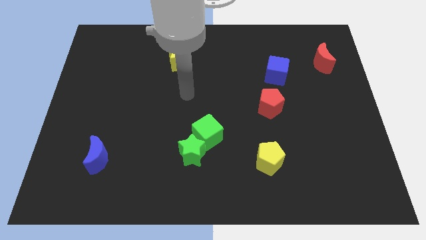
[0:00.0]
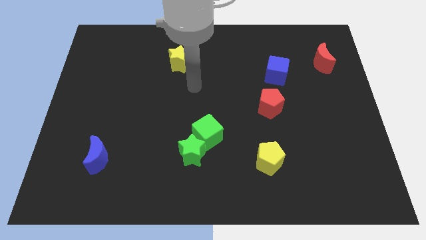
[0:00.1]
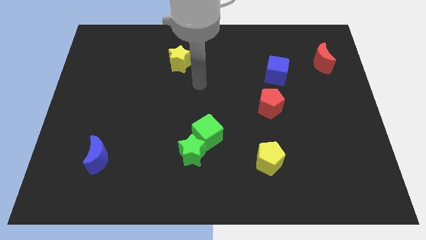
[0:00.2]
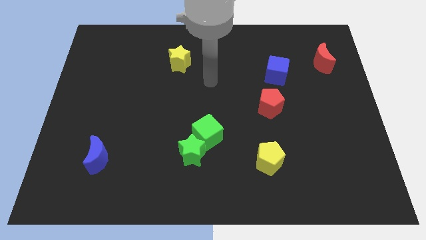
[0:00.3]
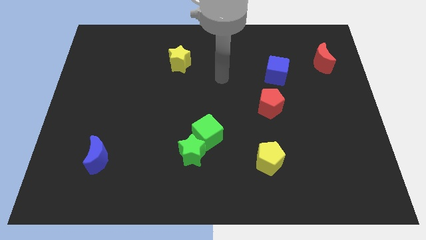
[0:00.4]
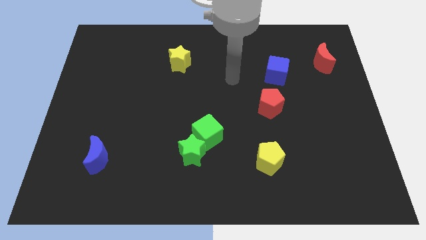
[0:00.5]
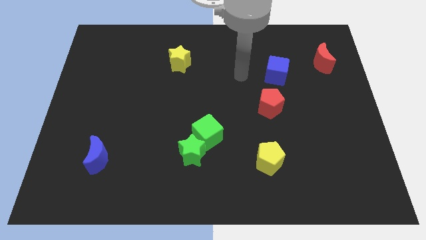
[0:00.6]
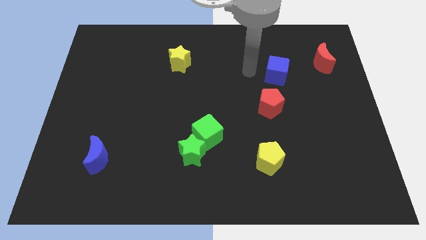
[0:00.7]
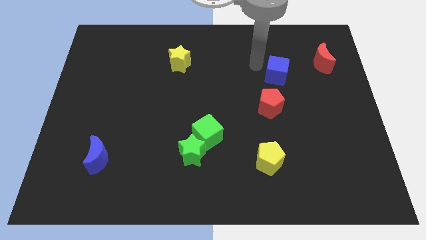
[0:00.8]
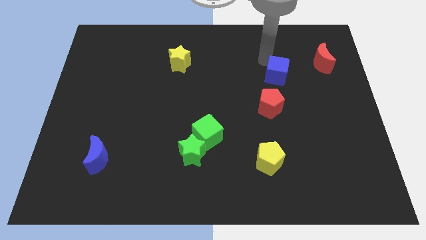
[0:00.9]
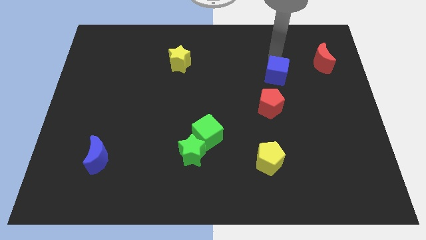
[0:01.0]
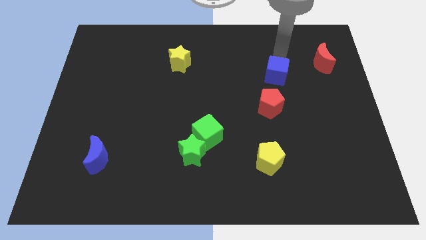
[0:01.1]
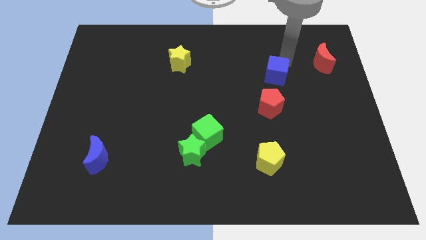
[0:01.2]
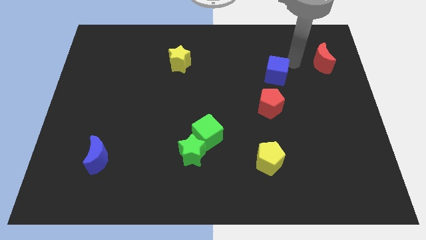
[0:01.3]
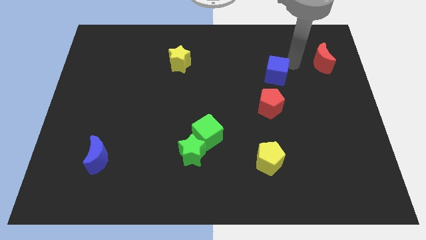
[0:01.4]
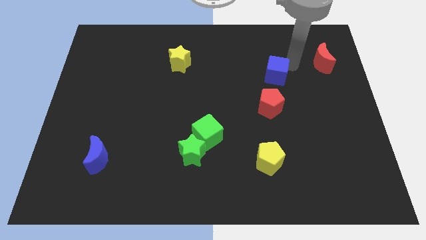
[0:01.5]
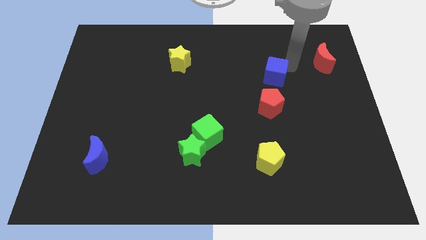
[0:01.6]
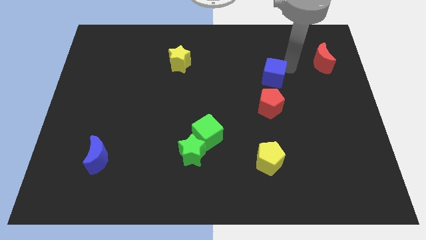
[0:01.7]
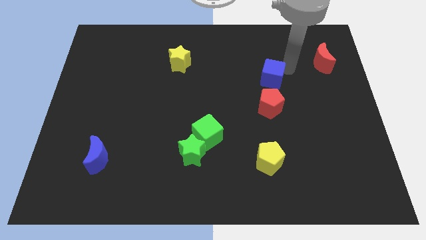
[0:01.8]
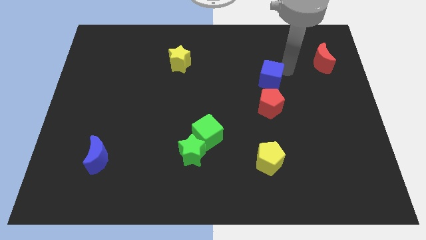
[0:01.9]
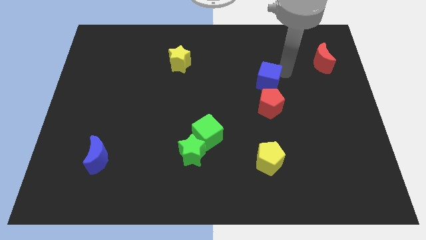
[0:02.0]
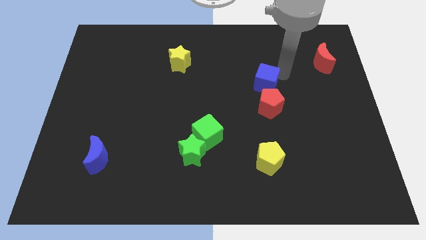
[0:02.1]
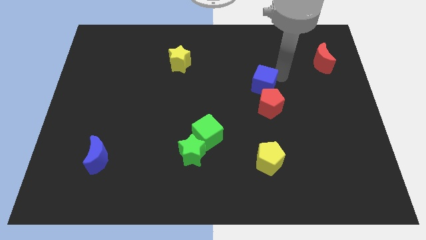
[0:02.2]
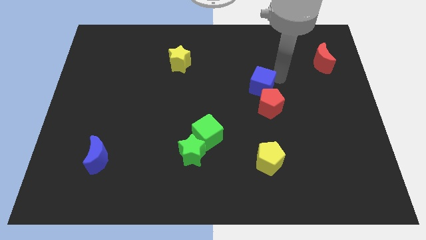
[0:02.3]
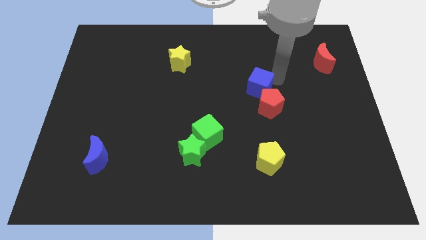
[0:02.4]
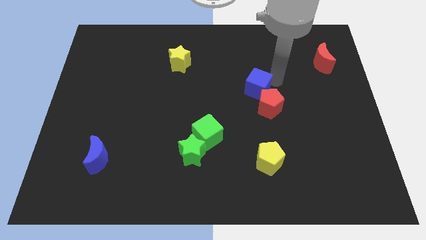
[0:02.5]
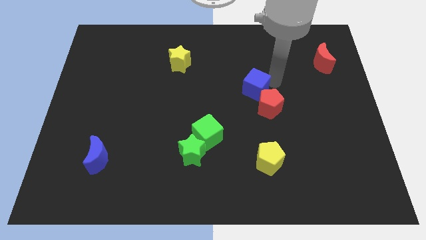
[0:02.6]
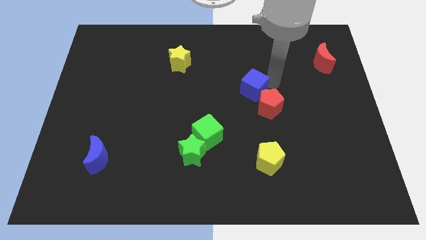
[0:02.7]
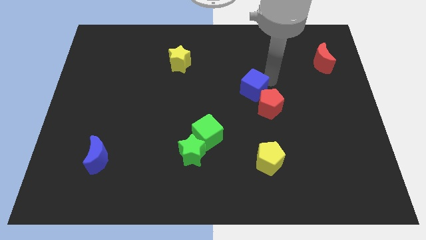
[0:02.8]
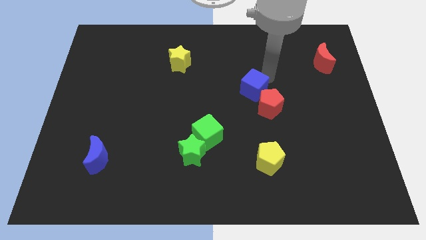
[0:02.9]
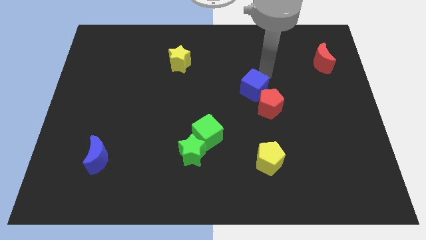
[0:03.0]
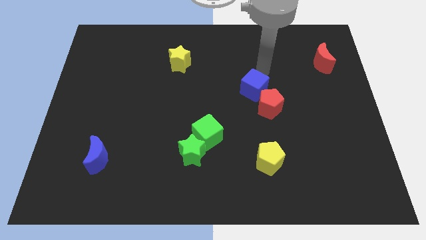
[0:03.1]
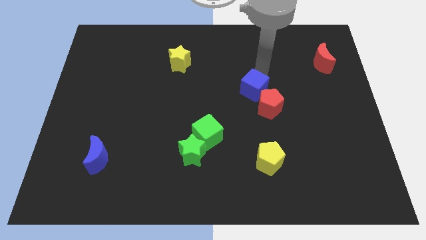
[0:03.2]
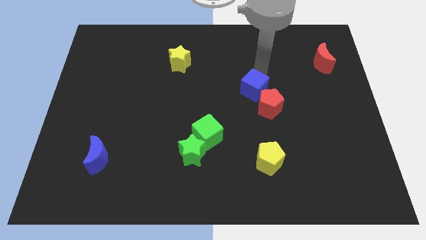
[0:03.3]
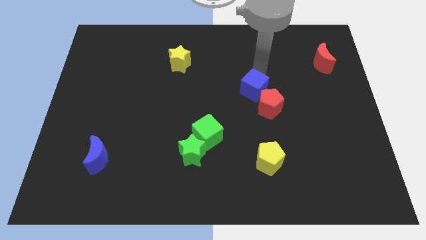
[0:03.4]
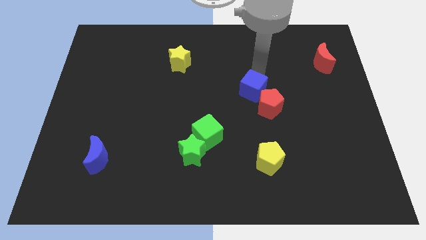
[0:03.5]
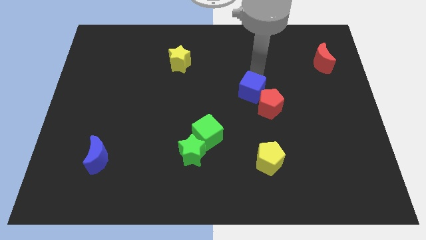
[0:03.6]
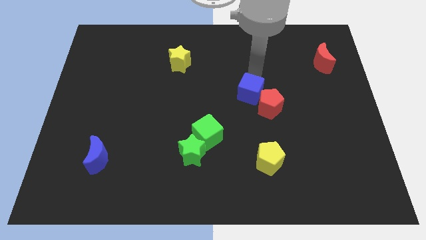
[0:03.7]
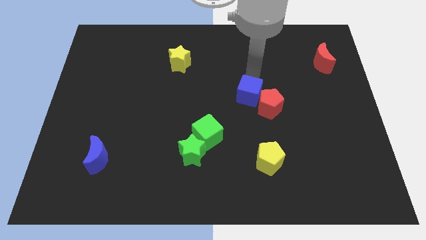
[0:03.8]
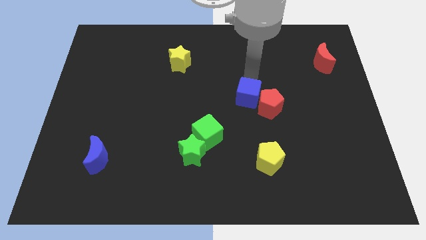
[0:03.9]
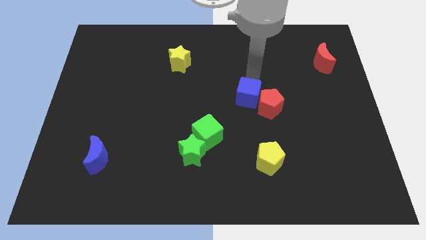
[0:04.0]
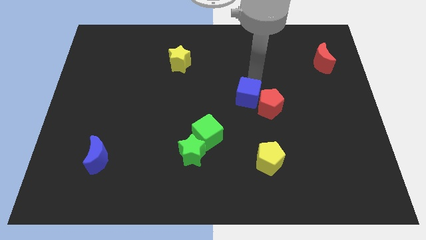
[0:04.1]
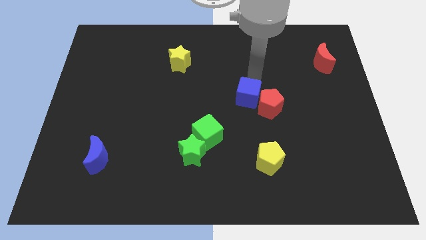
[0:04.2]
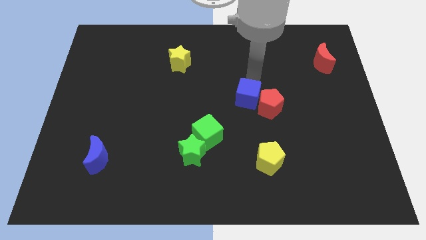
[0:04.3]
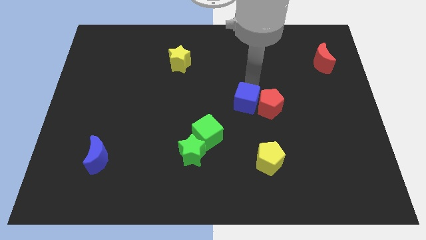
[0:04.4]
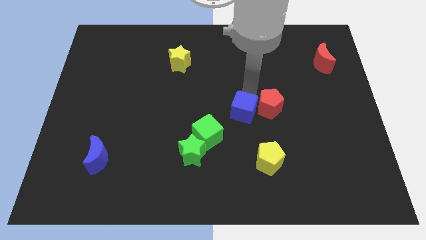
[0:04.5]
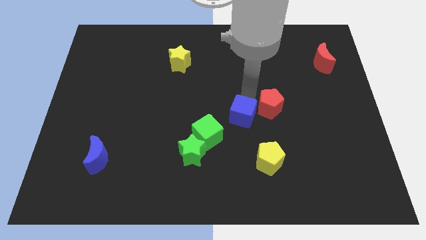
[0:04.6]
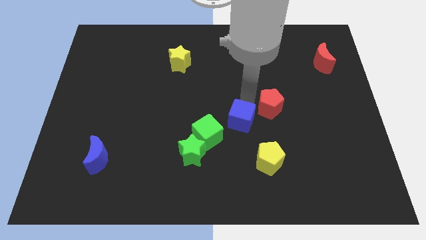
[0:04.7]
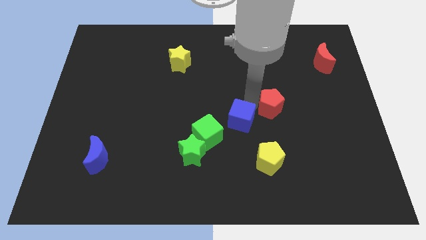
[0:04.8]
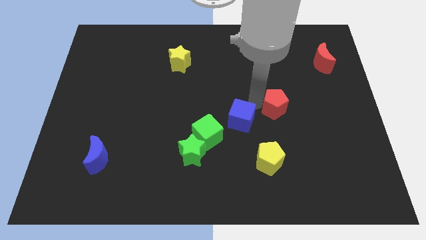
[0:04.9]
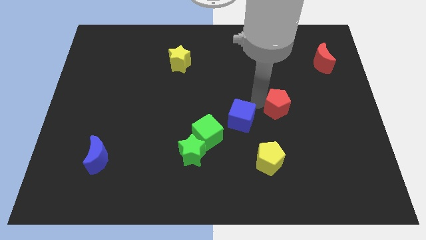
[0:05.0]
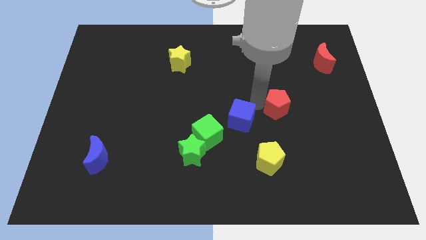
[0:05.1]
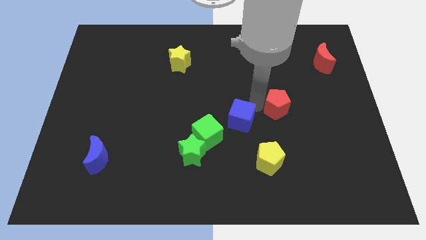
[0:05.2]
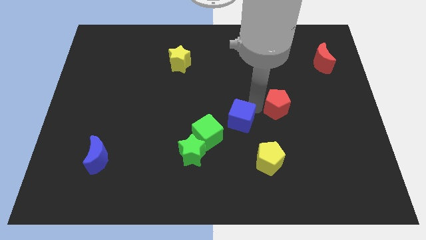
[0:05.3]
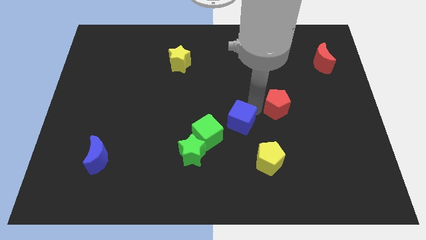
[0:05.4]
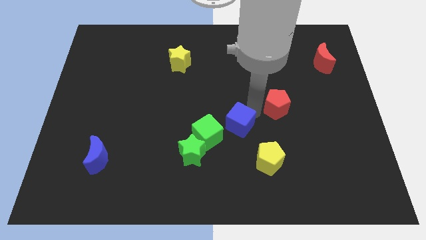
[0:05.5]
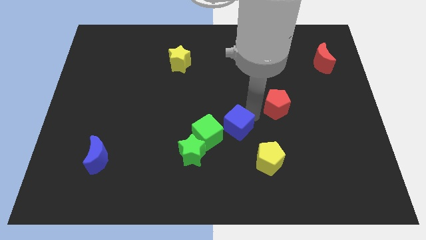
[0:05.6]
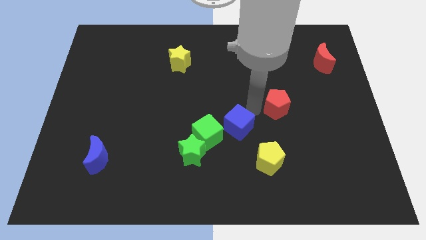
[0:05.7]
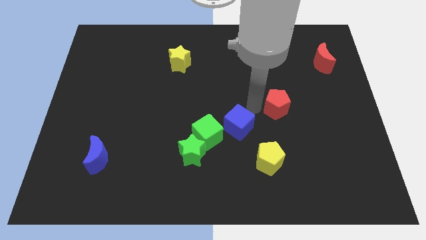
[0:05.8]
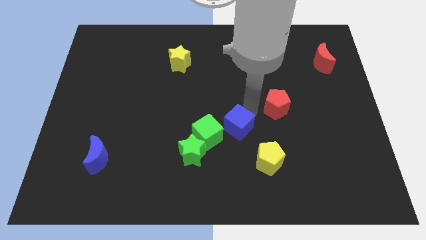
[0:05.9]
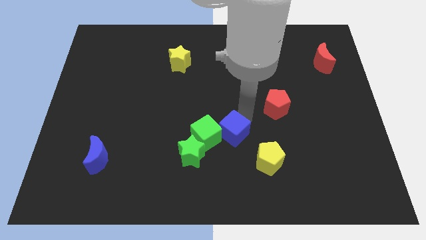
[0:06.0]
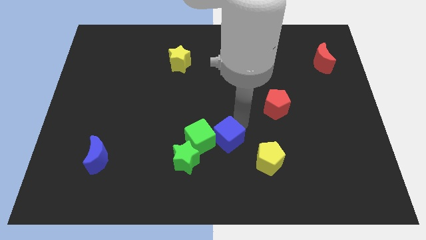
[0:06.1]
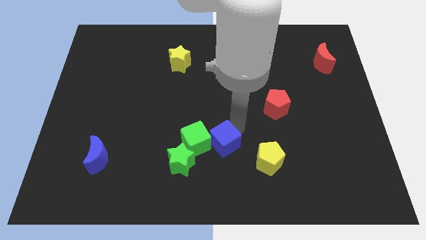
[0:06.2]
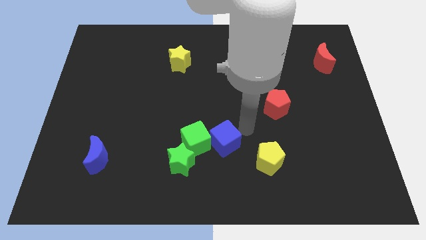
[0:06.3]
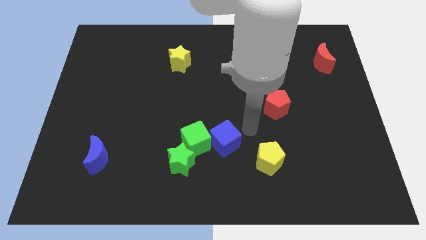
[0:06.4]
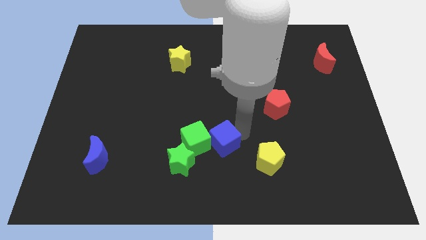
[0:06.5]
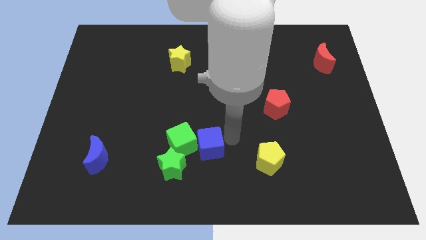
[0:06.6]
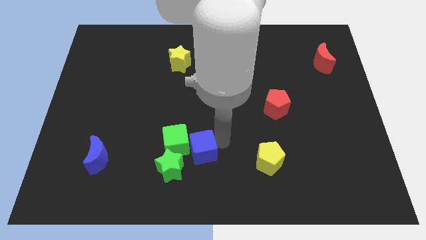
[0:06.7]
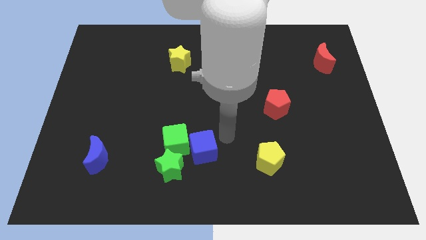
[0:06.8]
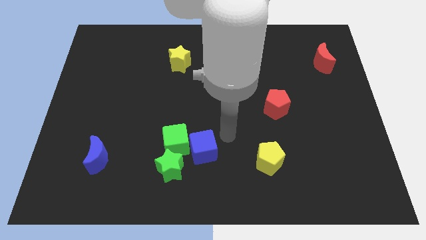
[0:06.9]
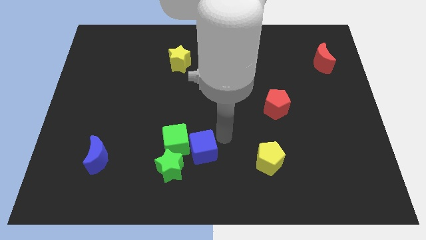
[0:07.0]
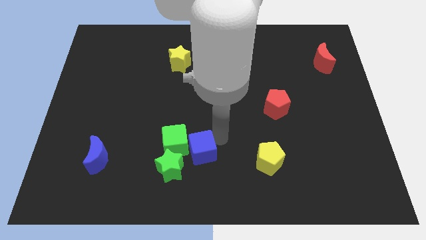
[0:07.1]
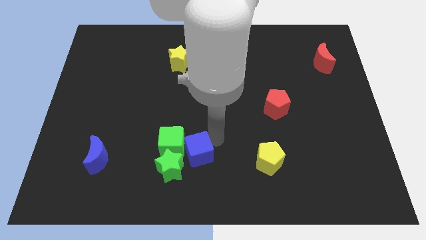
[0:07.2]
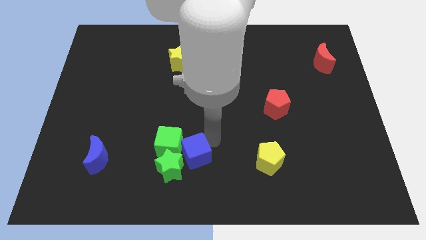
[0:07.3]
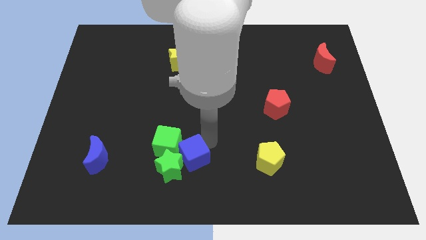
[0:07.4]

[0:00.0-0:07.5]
move the blue cube to the green star
